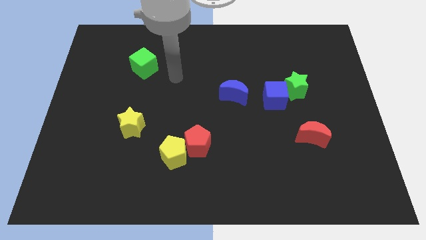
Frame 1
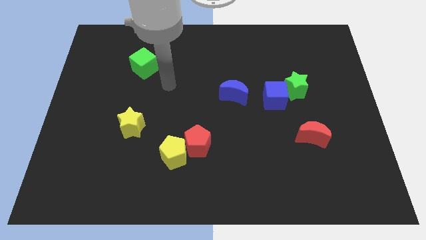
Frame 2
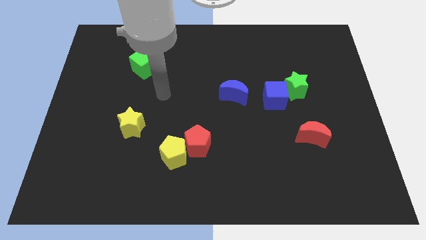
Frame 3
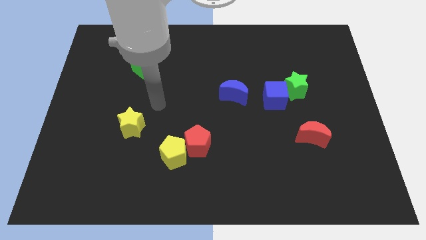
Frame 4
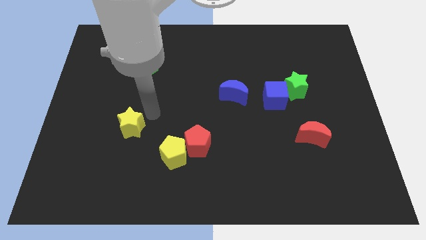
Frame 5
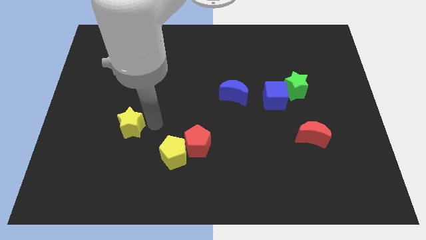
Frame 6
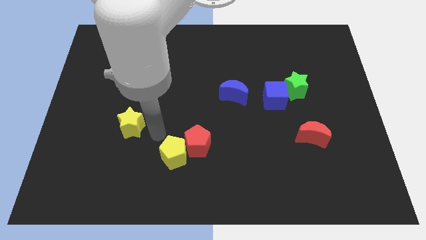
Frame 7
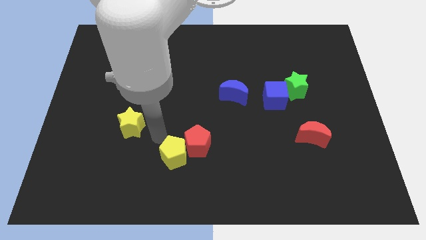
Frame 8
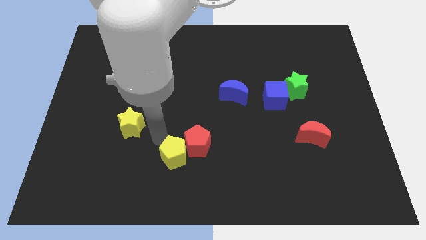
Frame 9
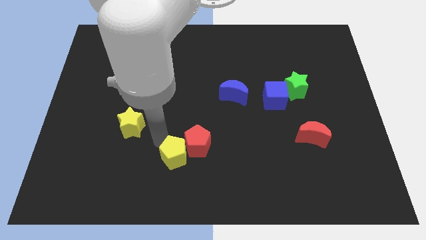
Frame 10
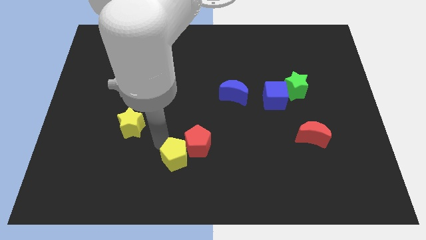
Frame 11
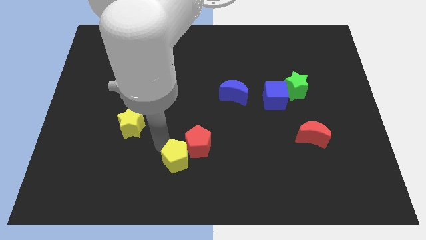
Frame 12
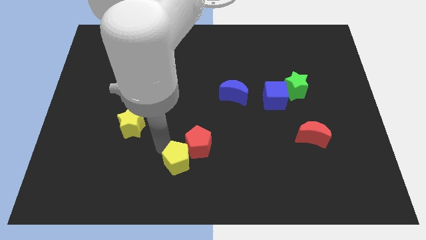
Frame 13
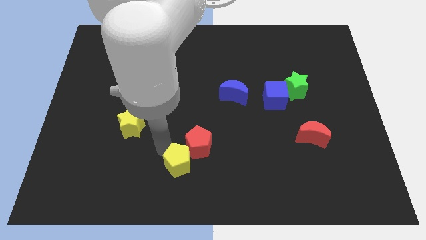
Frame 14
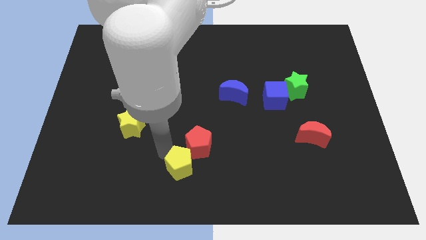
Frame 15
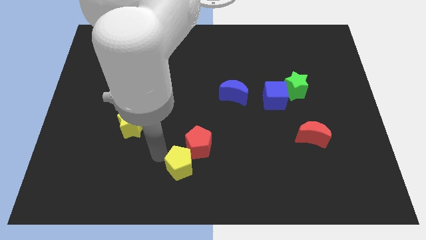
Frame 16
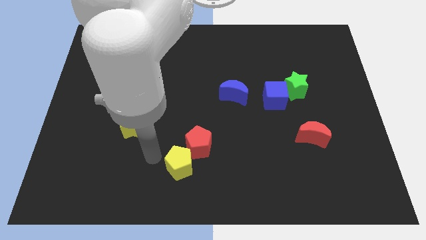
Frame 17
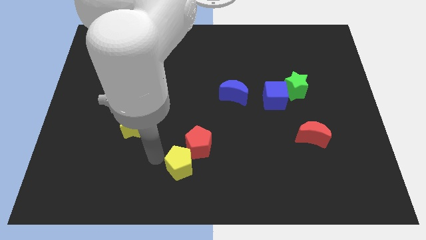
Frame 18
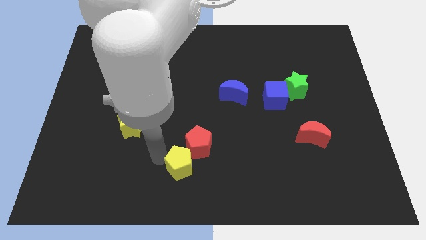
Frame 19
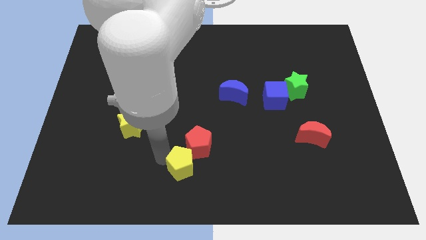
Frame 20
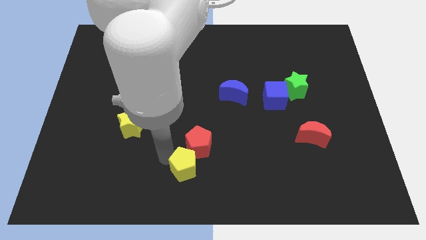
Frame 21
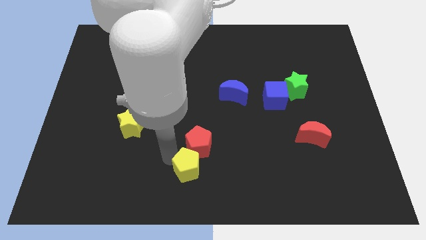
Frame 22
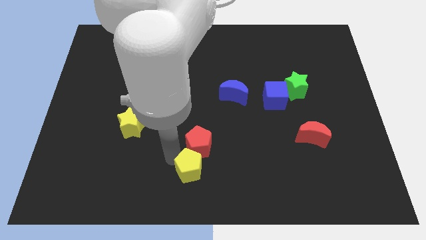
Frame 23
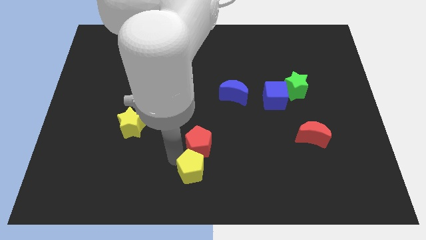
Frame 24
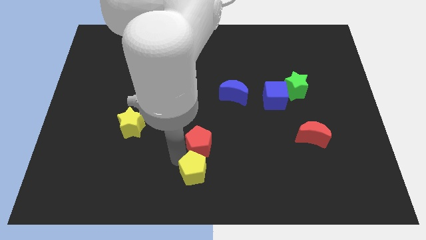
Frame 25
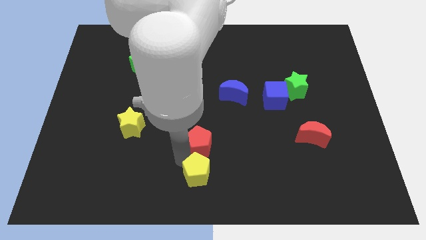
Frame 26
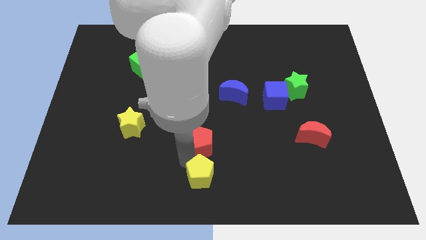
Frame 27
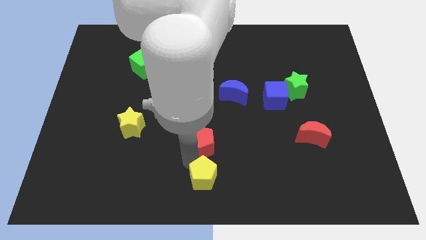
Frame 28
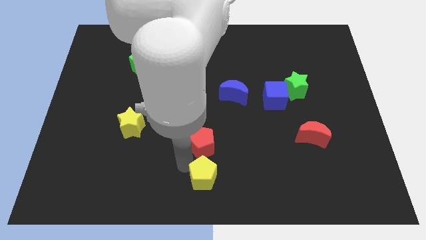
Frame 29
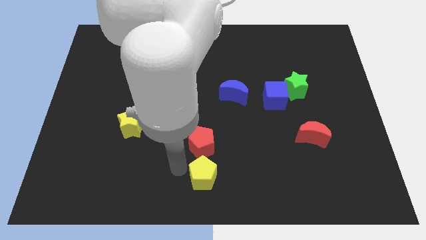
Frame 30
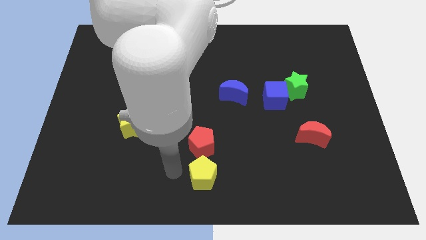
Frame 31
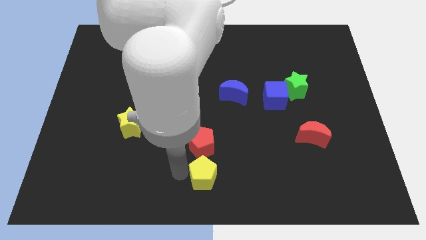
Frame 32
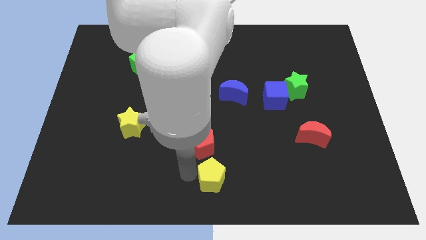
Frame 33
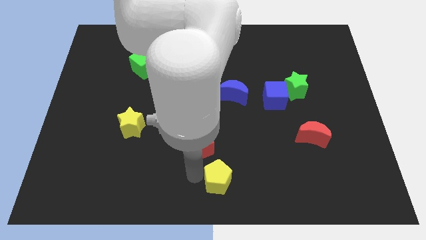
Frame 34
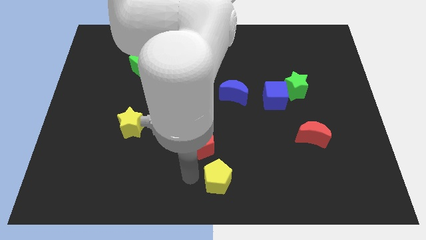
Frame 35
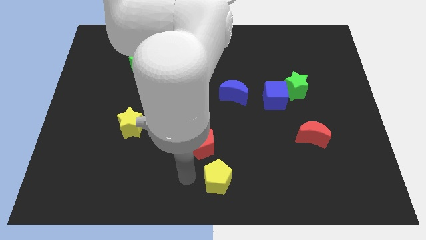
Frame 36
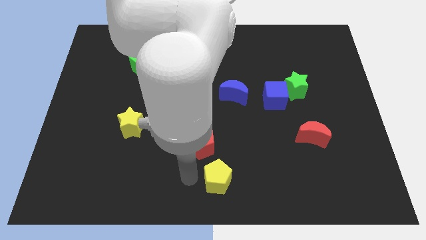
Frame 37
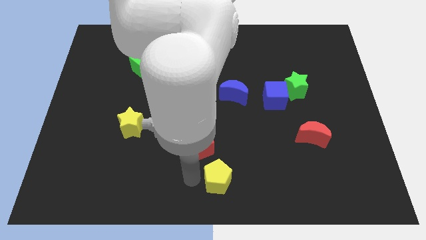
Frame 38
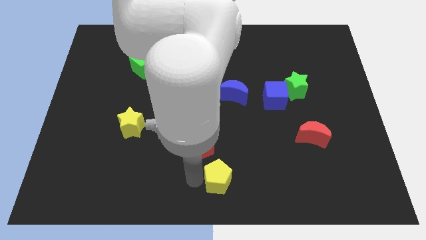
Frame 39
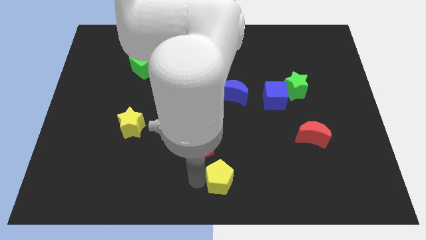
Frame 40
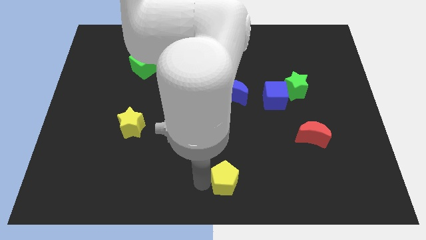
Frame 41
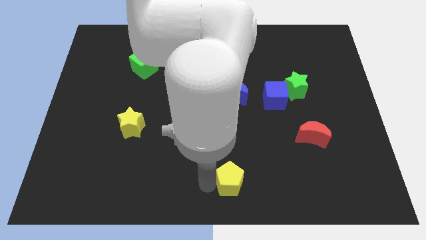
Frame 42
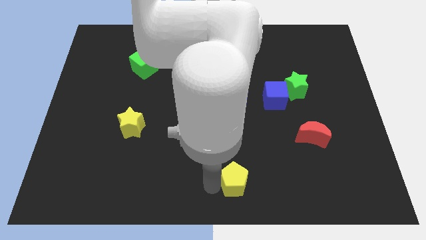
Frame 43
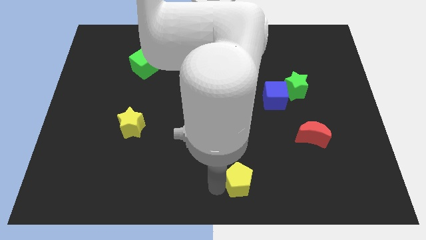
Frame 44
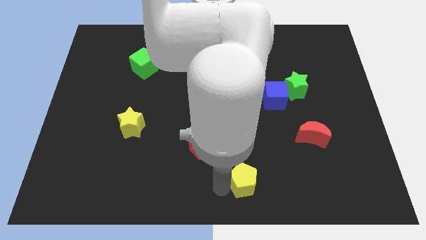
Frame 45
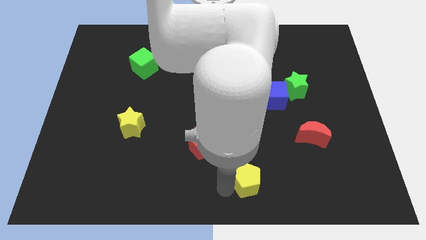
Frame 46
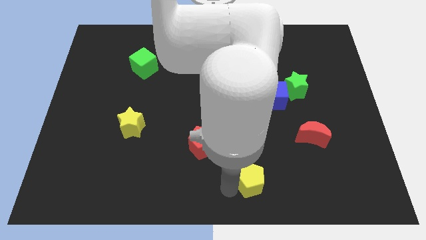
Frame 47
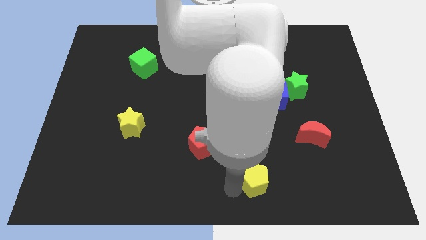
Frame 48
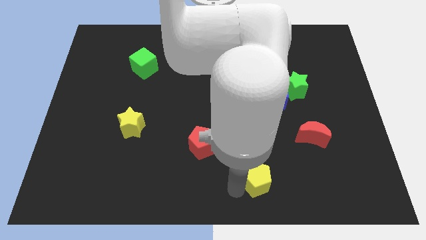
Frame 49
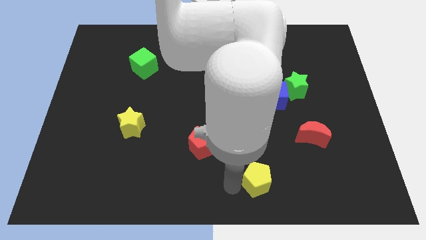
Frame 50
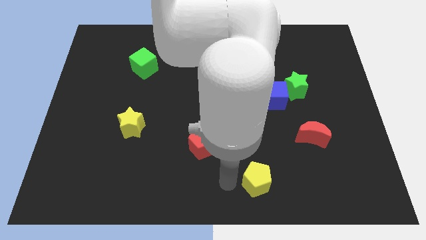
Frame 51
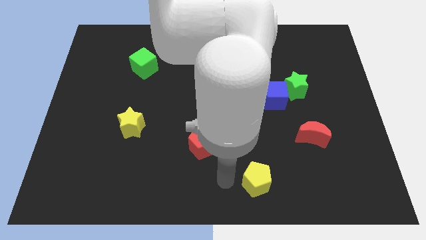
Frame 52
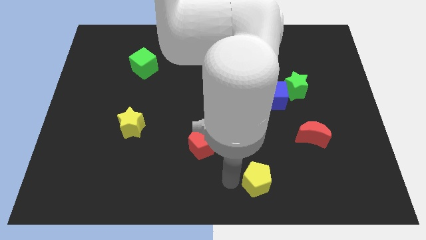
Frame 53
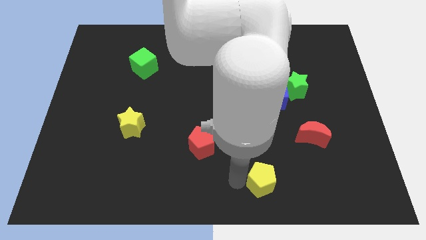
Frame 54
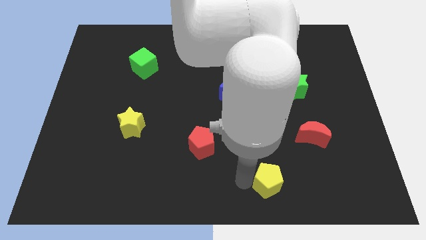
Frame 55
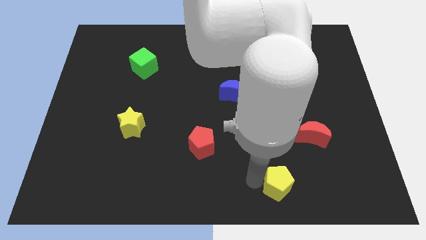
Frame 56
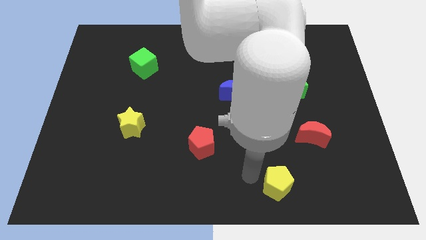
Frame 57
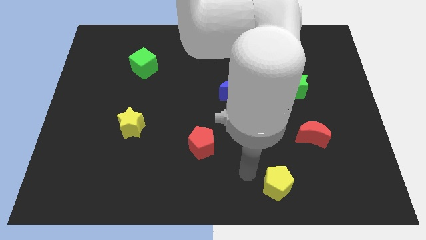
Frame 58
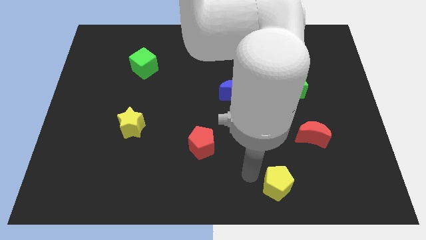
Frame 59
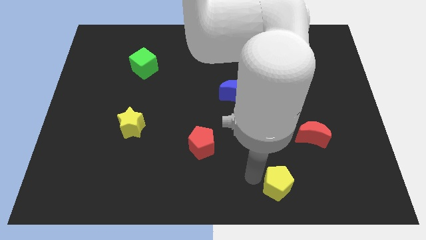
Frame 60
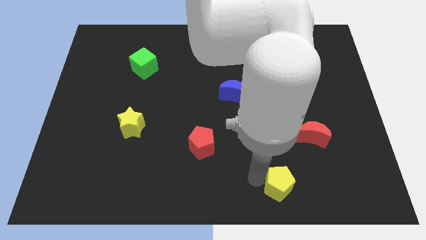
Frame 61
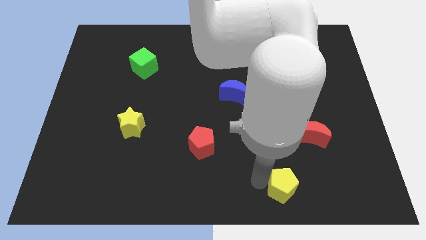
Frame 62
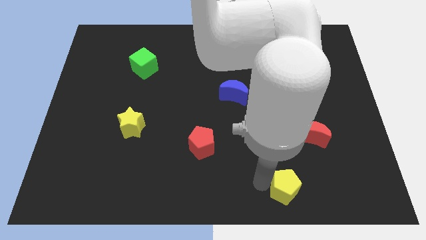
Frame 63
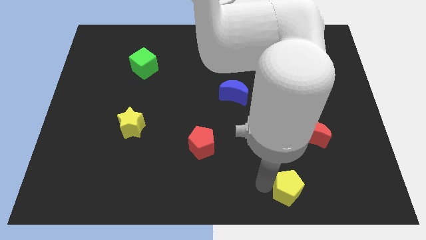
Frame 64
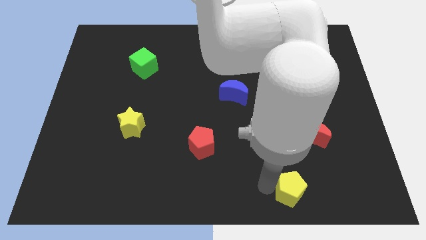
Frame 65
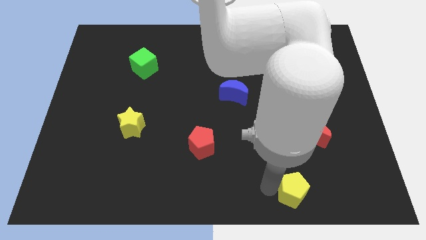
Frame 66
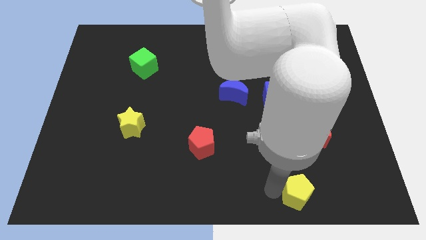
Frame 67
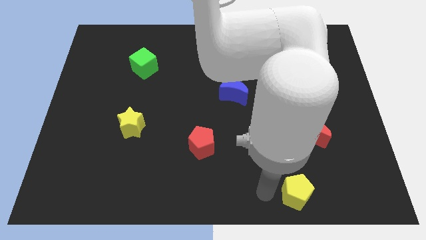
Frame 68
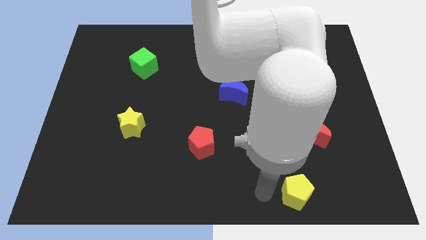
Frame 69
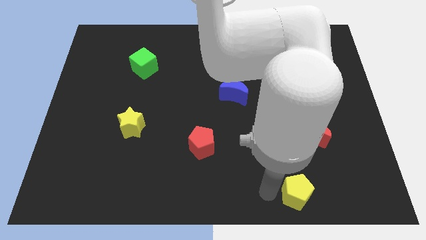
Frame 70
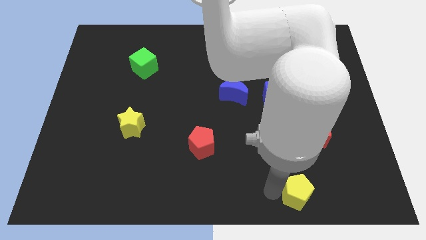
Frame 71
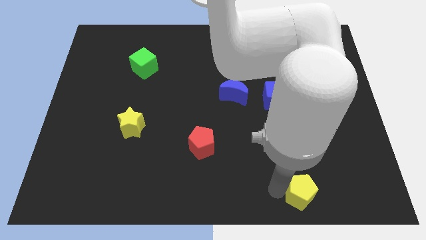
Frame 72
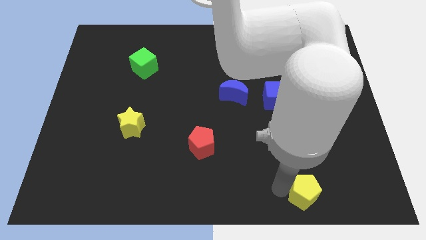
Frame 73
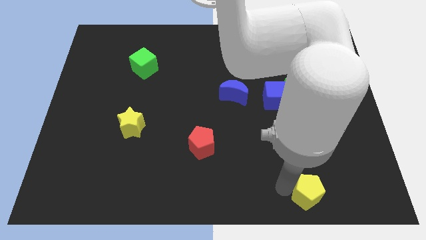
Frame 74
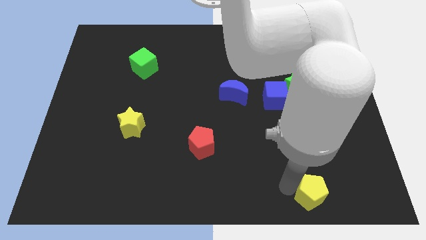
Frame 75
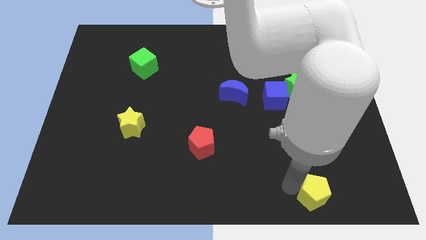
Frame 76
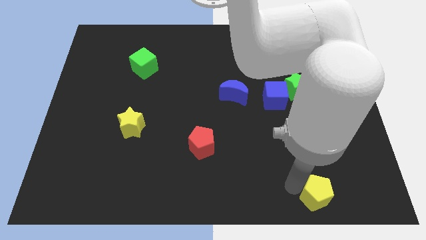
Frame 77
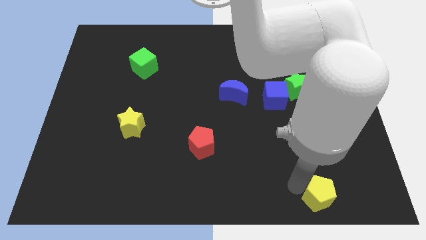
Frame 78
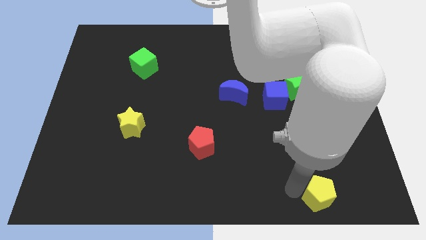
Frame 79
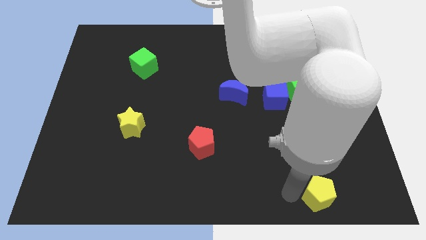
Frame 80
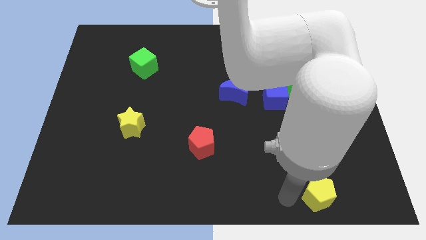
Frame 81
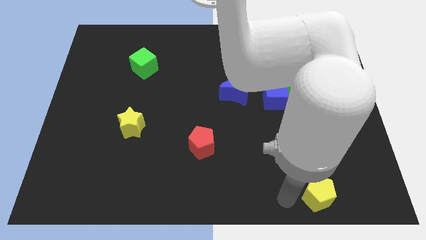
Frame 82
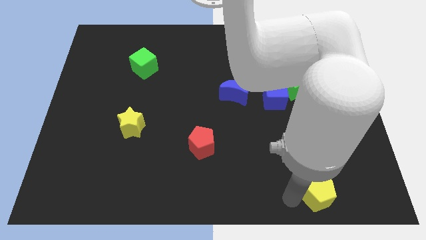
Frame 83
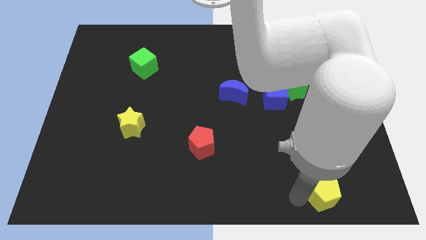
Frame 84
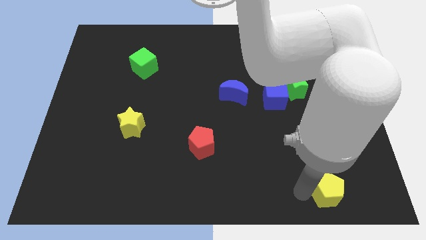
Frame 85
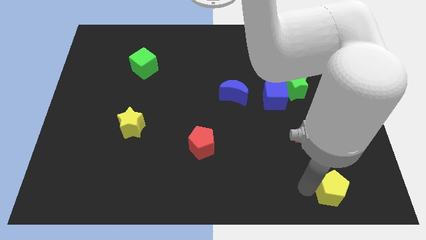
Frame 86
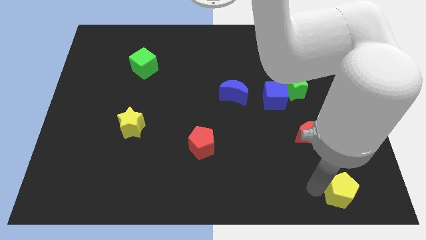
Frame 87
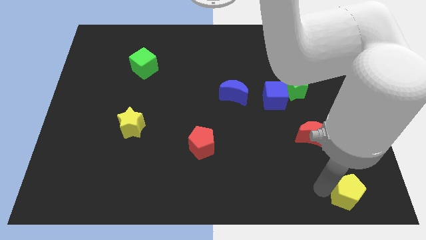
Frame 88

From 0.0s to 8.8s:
slide the yellow pentagon to the bottom right
